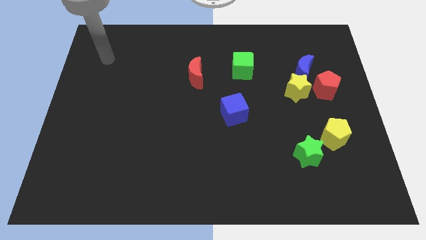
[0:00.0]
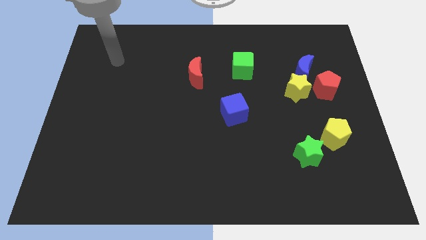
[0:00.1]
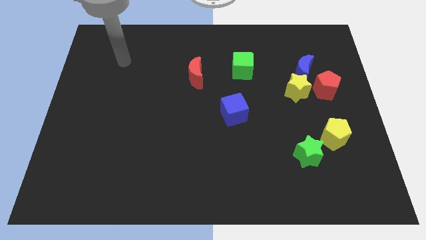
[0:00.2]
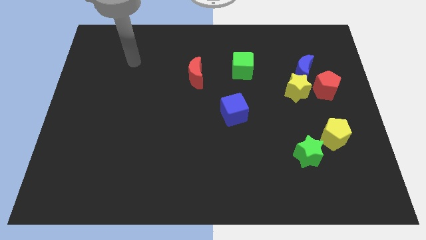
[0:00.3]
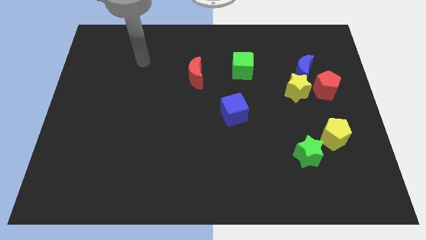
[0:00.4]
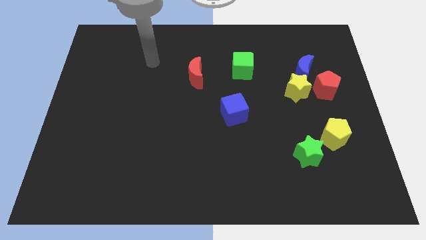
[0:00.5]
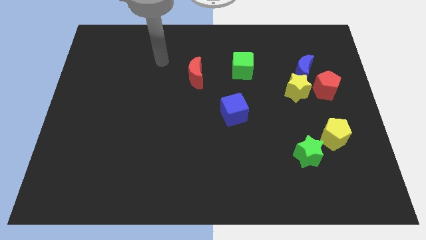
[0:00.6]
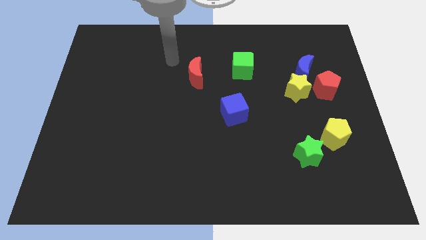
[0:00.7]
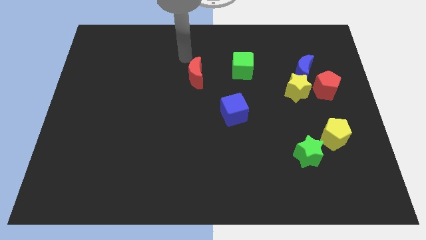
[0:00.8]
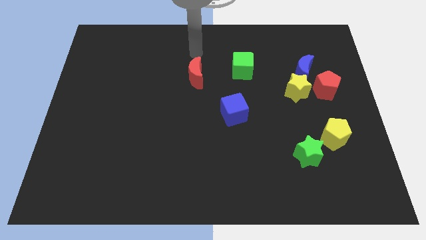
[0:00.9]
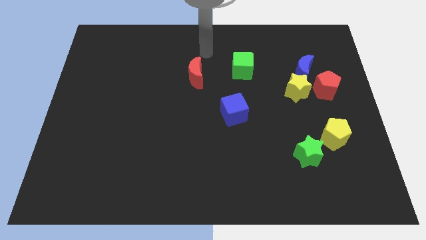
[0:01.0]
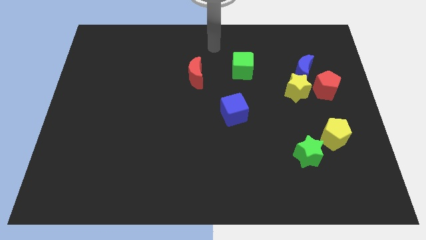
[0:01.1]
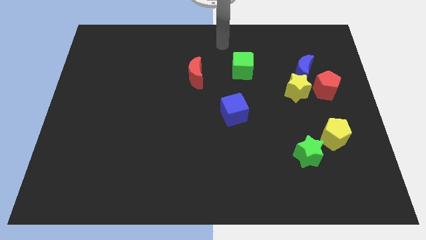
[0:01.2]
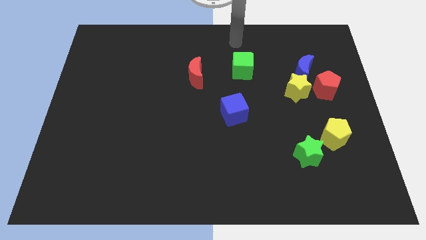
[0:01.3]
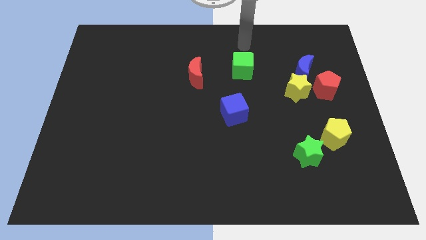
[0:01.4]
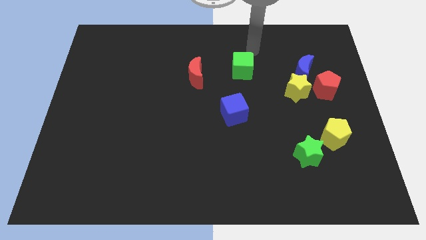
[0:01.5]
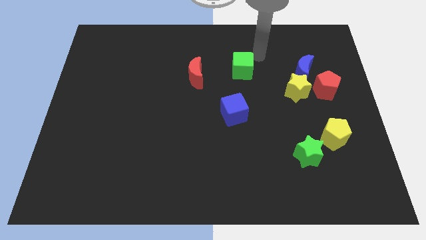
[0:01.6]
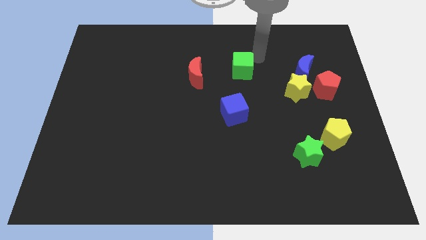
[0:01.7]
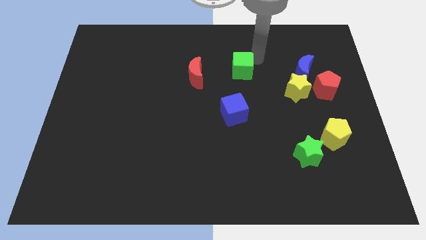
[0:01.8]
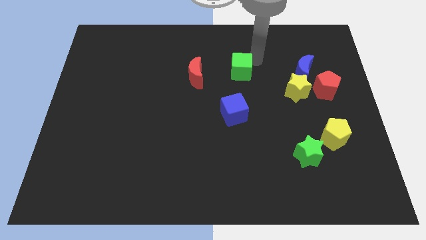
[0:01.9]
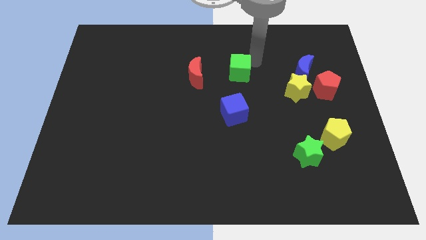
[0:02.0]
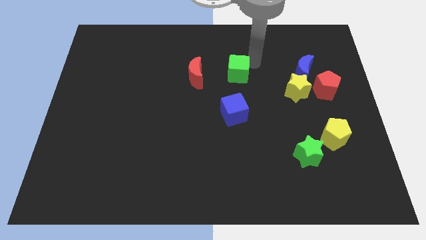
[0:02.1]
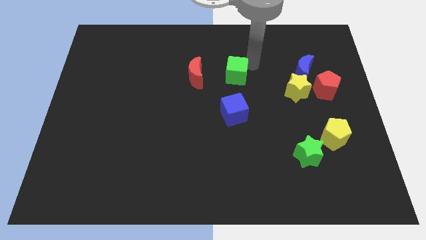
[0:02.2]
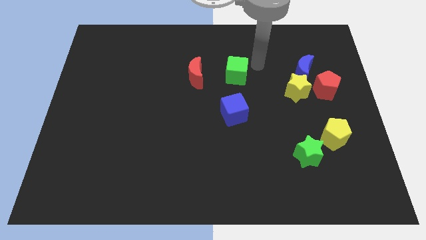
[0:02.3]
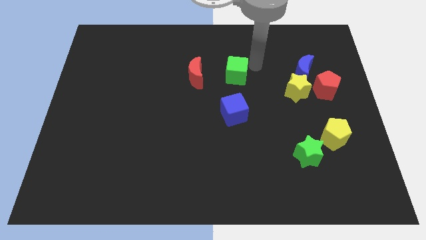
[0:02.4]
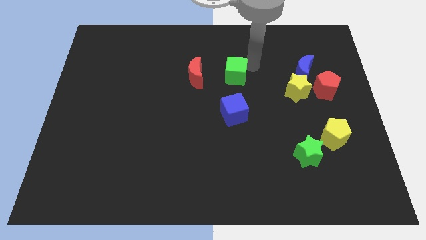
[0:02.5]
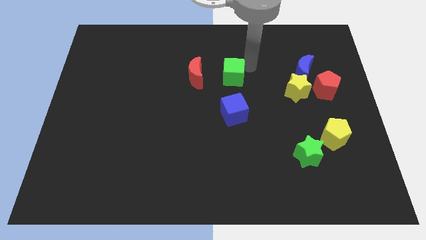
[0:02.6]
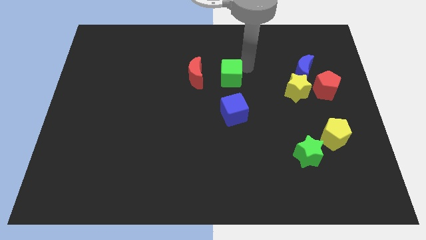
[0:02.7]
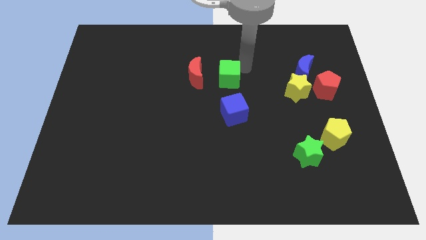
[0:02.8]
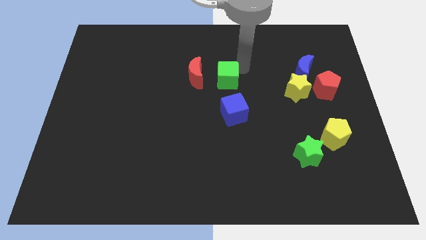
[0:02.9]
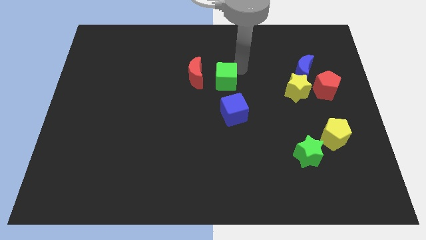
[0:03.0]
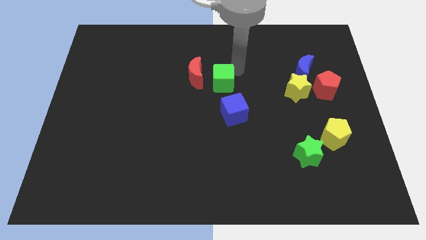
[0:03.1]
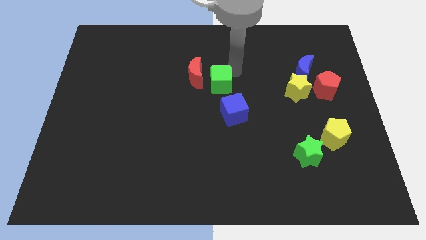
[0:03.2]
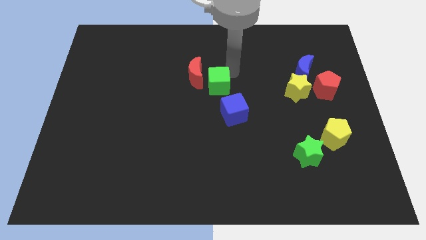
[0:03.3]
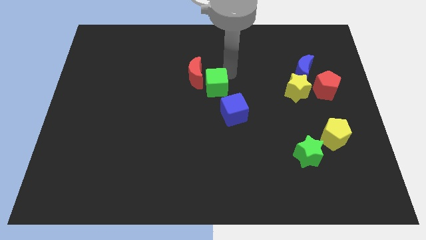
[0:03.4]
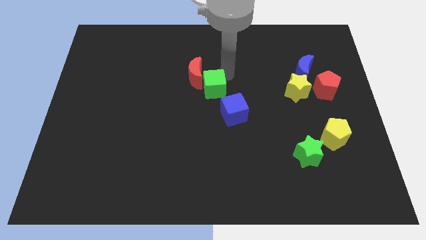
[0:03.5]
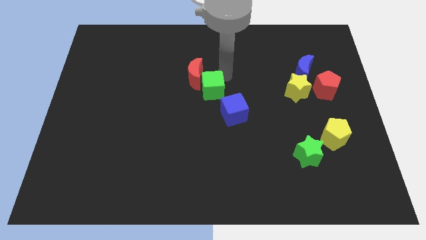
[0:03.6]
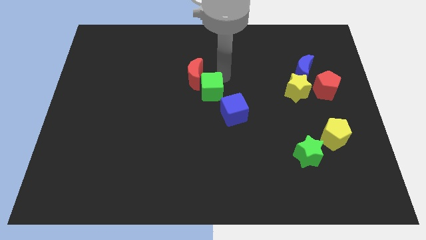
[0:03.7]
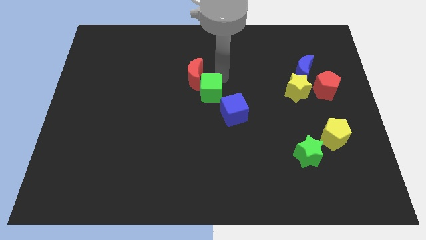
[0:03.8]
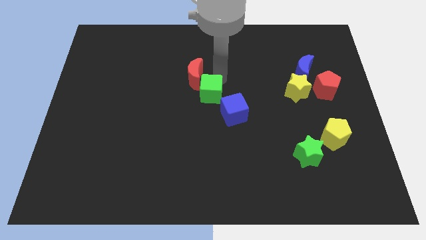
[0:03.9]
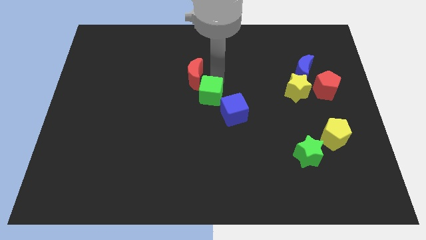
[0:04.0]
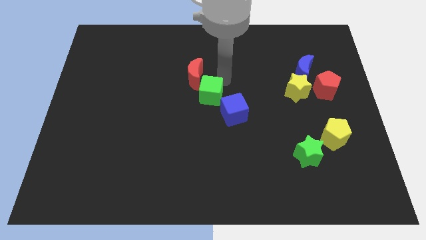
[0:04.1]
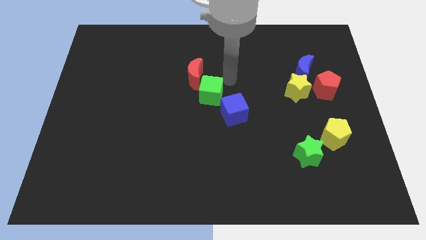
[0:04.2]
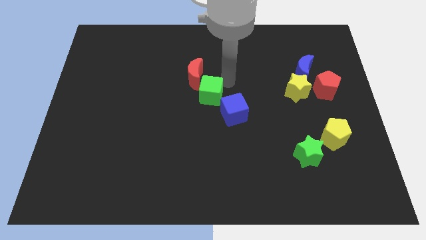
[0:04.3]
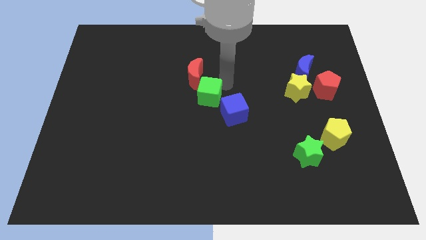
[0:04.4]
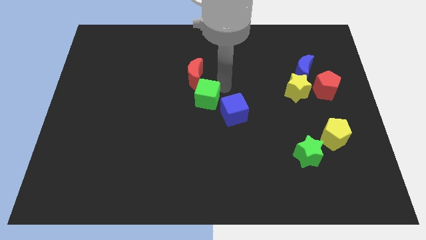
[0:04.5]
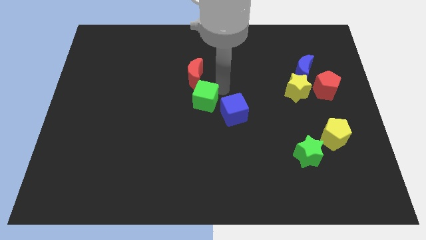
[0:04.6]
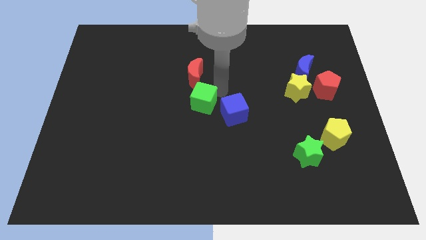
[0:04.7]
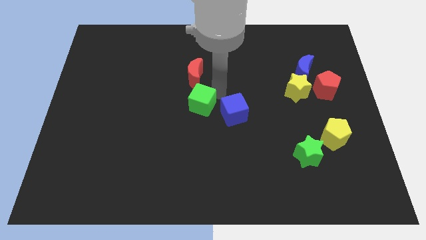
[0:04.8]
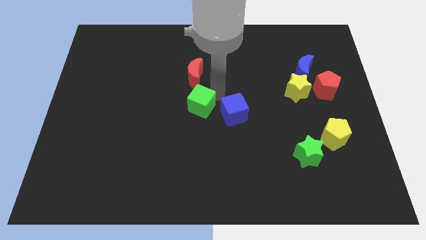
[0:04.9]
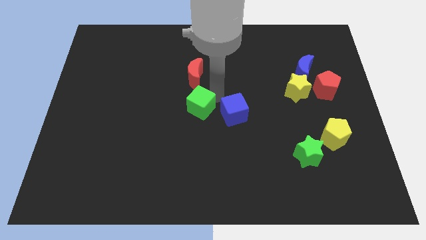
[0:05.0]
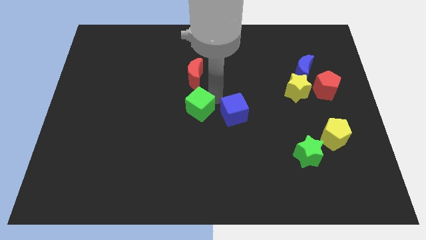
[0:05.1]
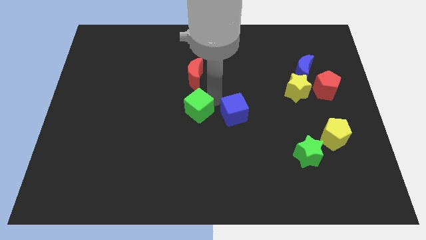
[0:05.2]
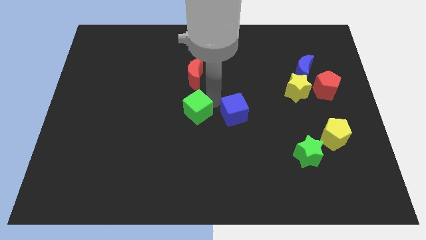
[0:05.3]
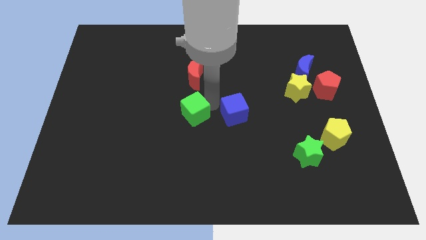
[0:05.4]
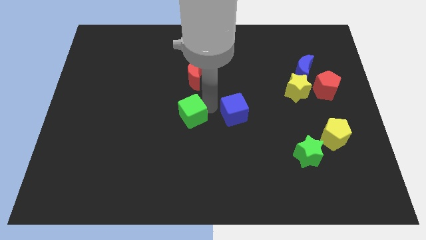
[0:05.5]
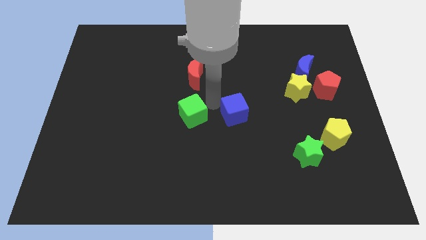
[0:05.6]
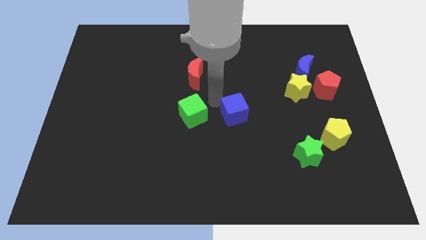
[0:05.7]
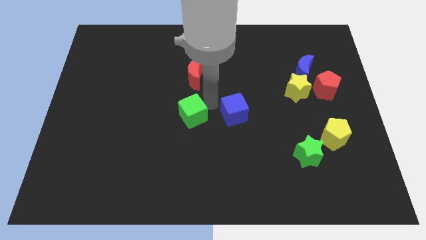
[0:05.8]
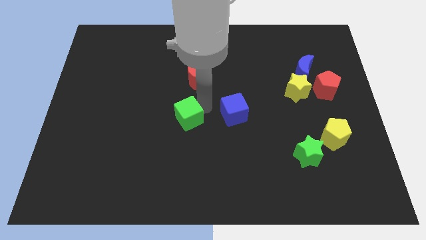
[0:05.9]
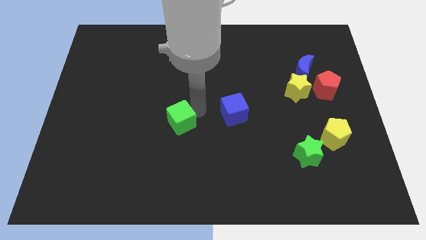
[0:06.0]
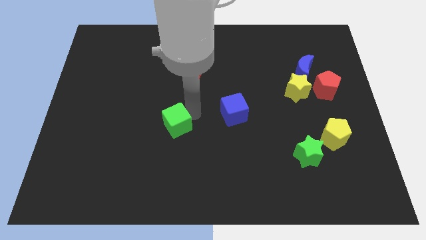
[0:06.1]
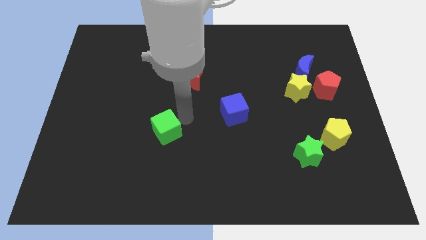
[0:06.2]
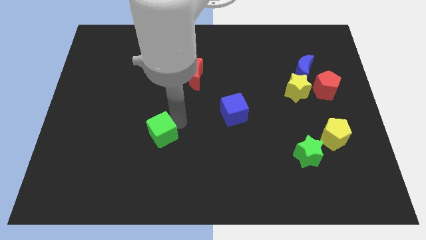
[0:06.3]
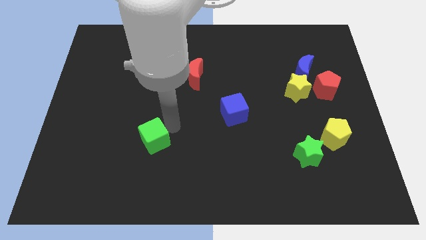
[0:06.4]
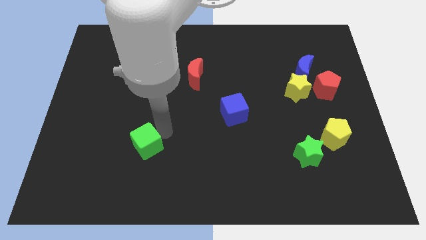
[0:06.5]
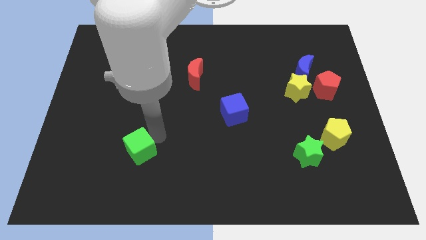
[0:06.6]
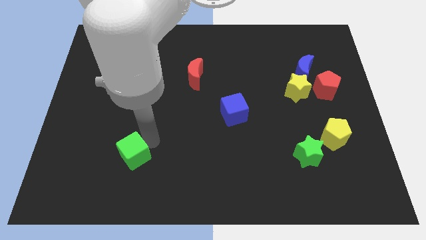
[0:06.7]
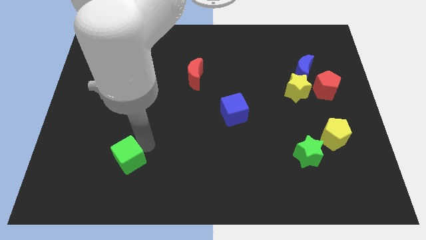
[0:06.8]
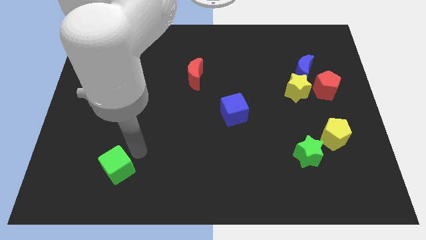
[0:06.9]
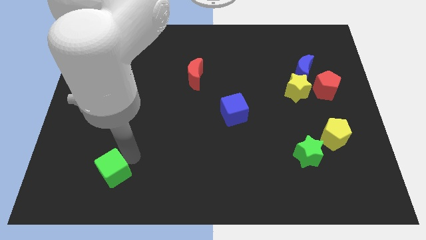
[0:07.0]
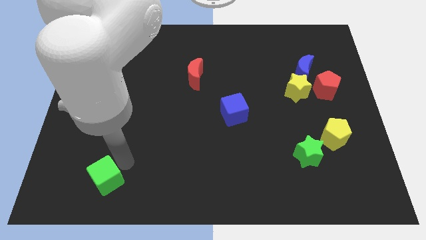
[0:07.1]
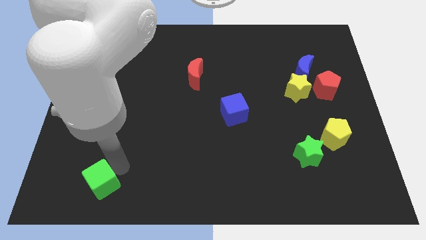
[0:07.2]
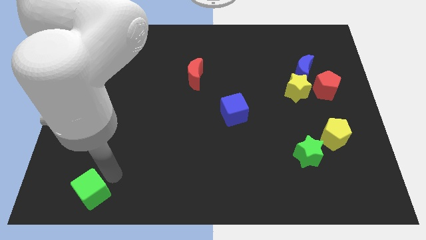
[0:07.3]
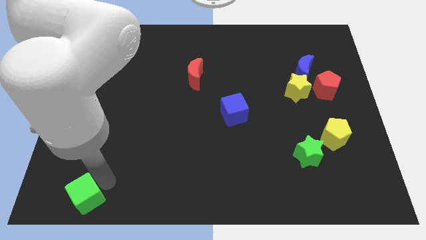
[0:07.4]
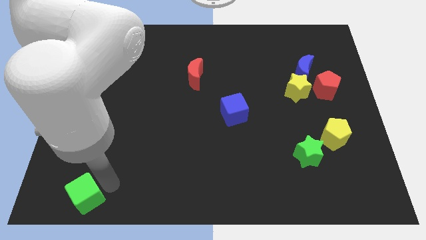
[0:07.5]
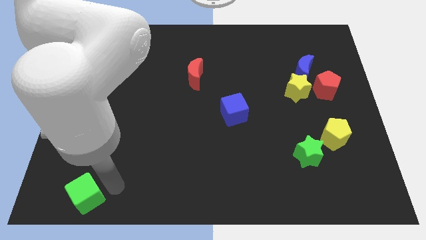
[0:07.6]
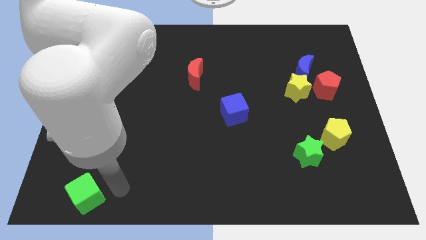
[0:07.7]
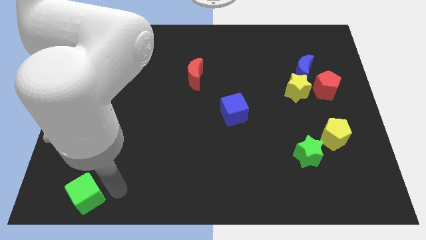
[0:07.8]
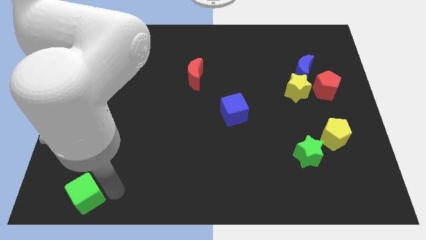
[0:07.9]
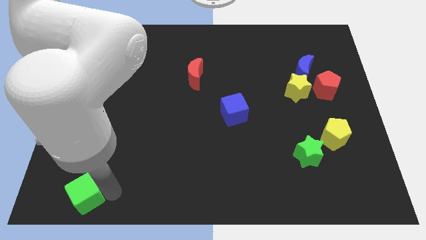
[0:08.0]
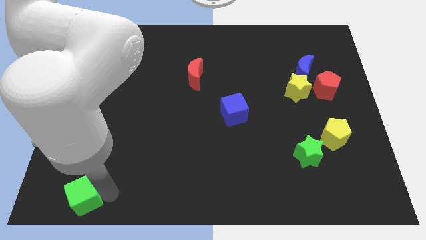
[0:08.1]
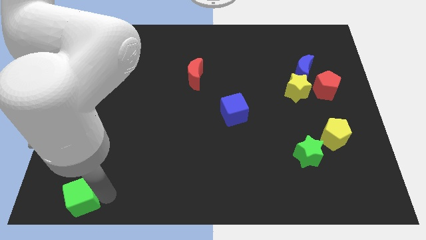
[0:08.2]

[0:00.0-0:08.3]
put the green cube to the bottom left
